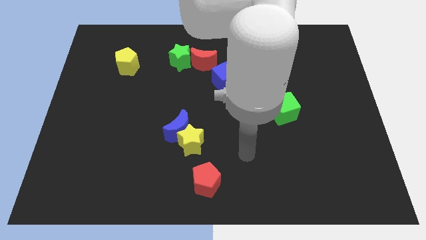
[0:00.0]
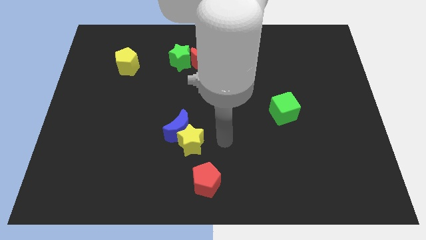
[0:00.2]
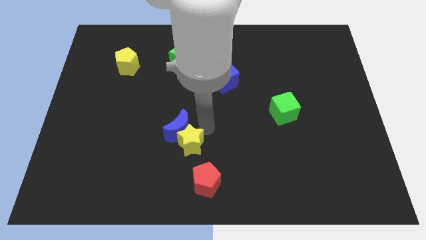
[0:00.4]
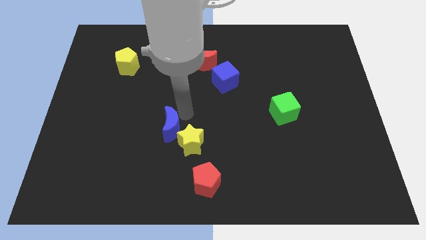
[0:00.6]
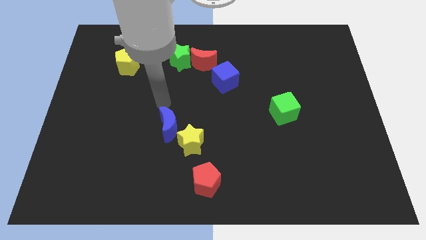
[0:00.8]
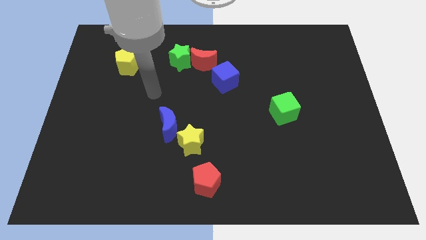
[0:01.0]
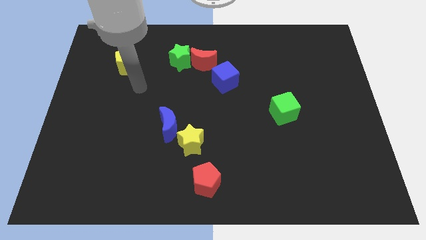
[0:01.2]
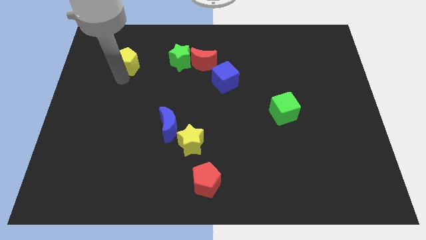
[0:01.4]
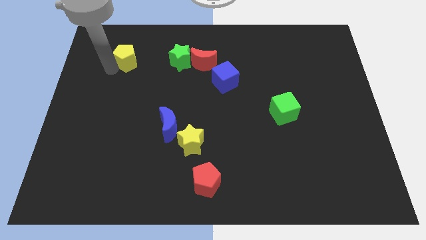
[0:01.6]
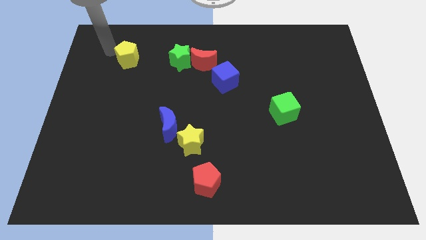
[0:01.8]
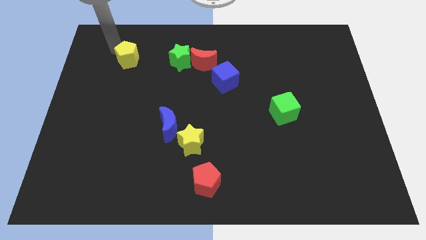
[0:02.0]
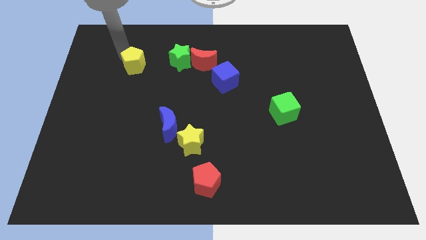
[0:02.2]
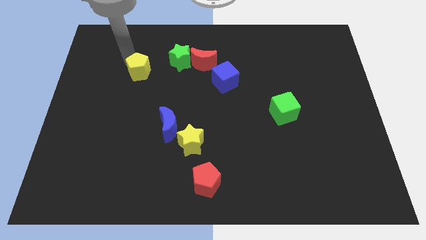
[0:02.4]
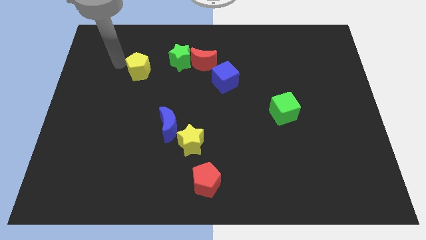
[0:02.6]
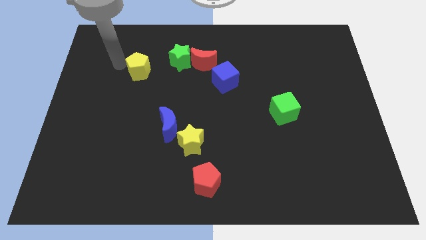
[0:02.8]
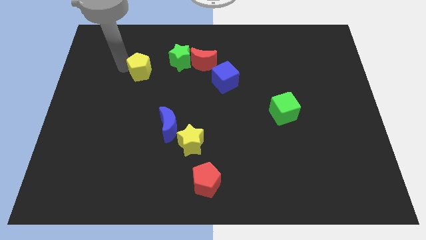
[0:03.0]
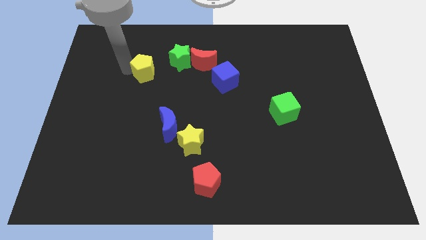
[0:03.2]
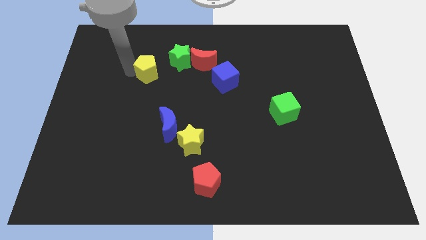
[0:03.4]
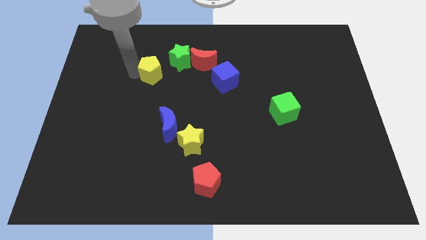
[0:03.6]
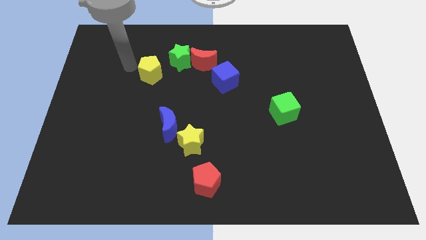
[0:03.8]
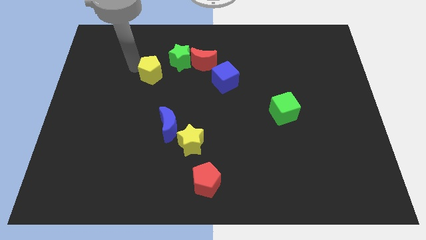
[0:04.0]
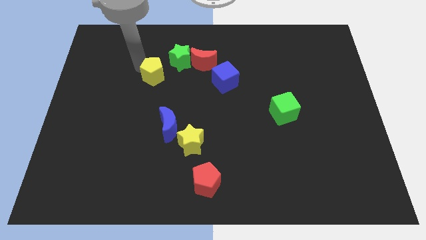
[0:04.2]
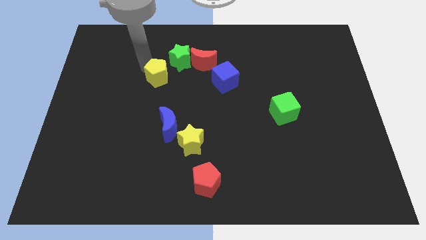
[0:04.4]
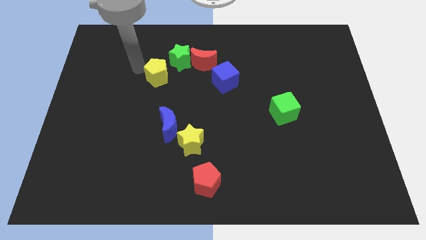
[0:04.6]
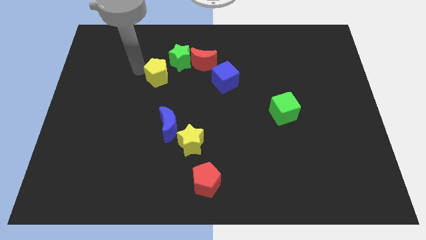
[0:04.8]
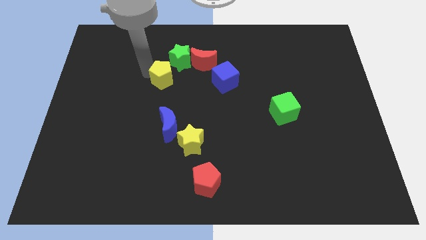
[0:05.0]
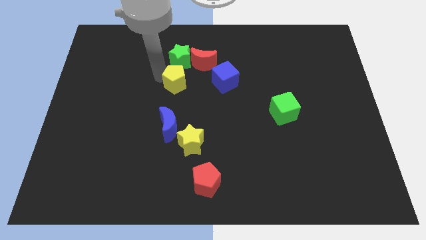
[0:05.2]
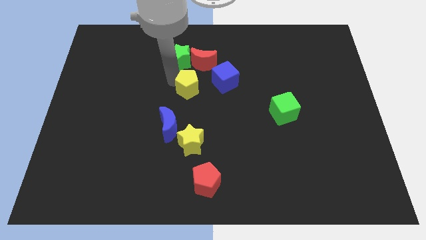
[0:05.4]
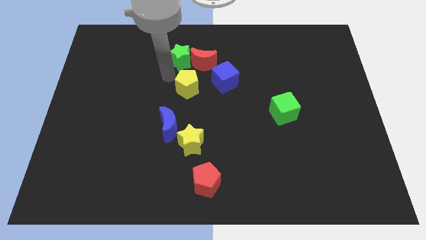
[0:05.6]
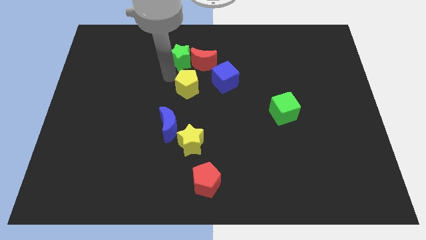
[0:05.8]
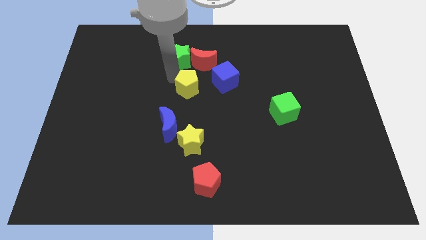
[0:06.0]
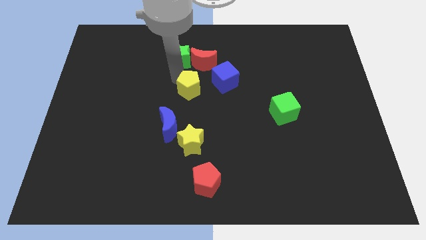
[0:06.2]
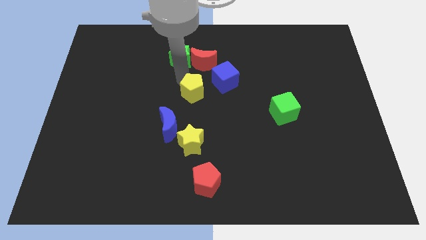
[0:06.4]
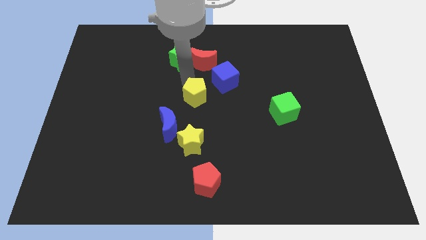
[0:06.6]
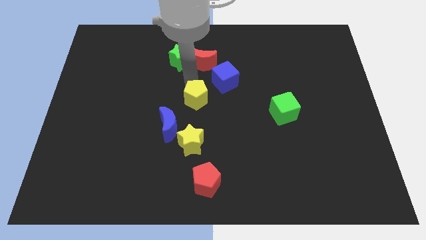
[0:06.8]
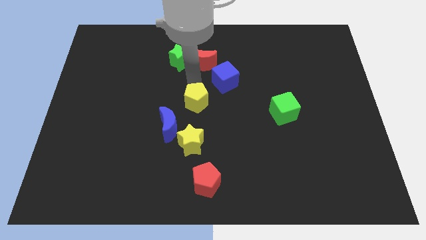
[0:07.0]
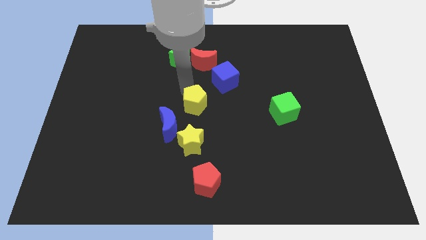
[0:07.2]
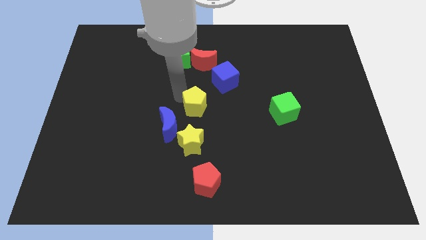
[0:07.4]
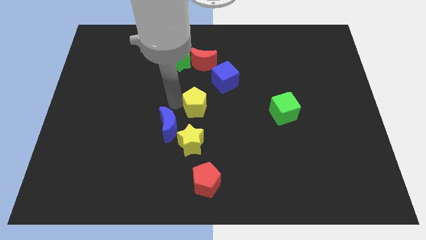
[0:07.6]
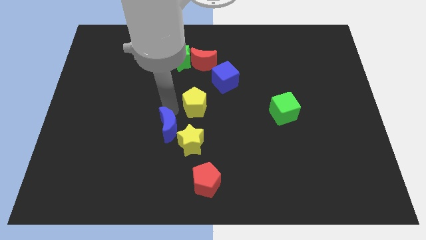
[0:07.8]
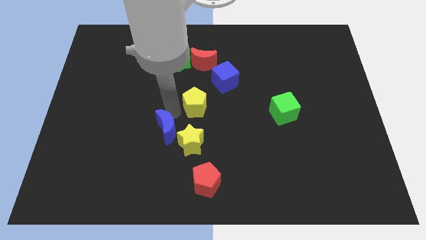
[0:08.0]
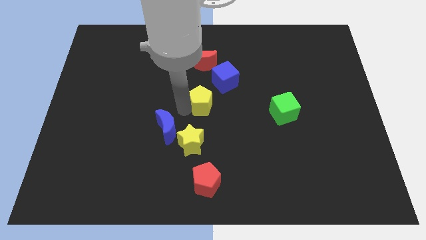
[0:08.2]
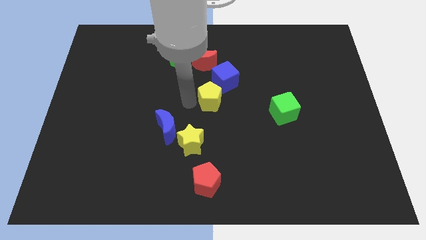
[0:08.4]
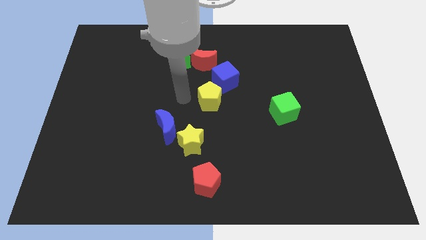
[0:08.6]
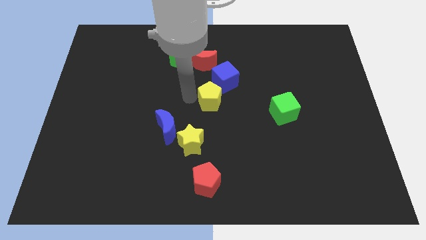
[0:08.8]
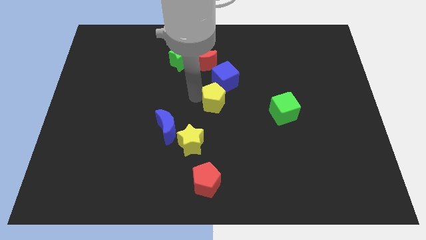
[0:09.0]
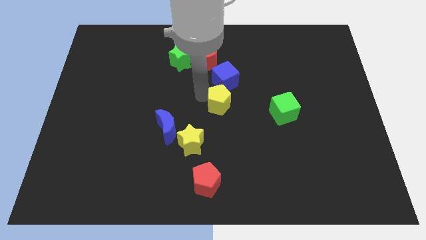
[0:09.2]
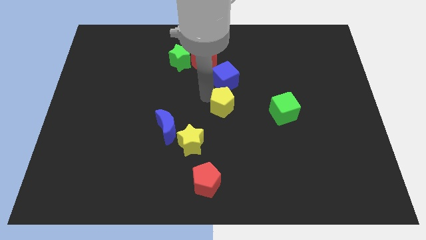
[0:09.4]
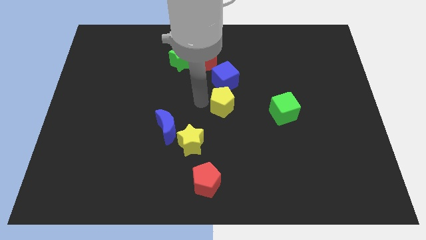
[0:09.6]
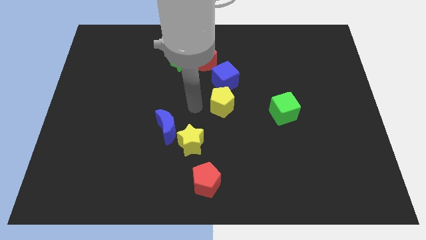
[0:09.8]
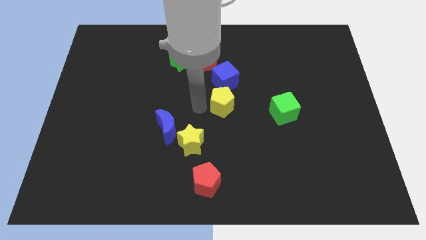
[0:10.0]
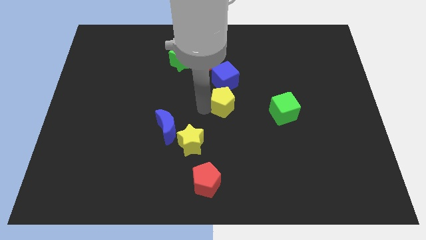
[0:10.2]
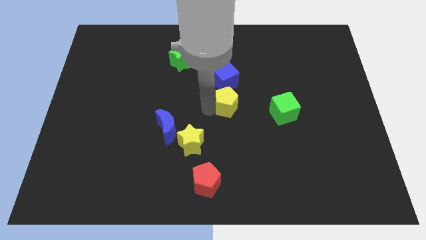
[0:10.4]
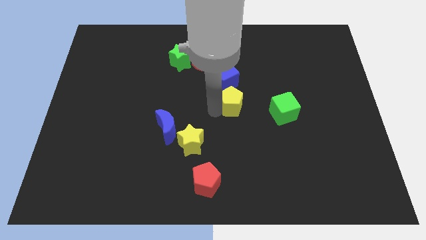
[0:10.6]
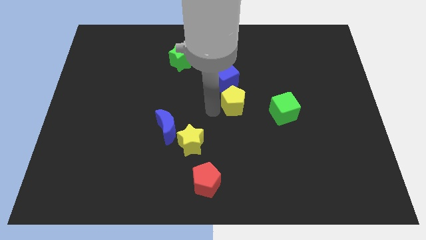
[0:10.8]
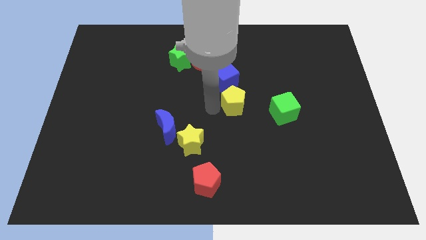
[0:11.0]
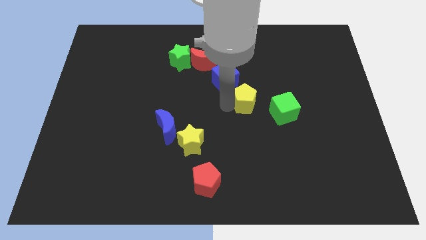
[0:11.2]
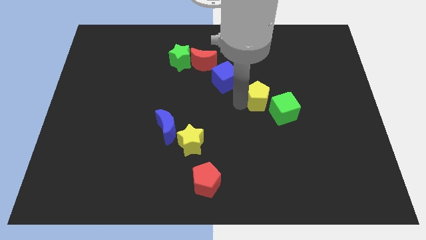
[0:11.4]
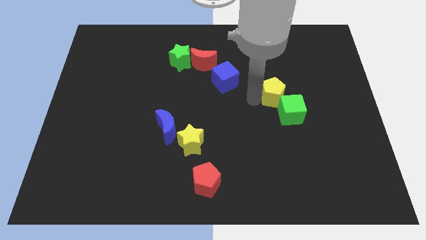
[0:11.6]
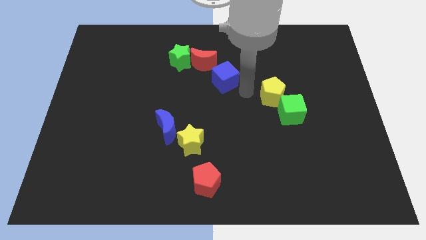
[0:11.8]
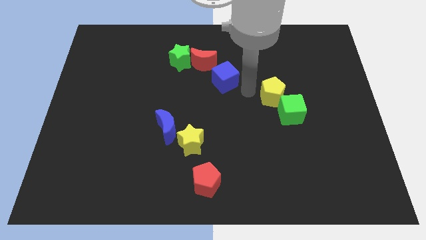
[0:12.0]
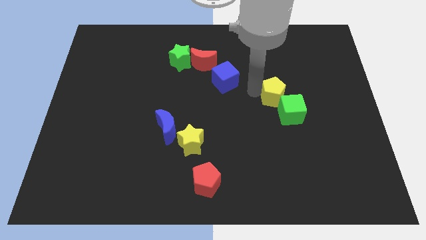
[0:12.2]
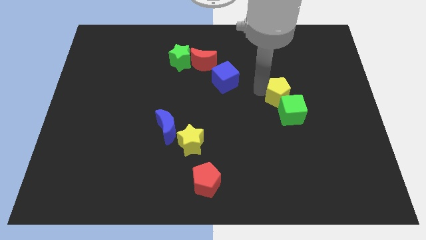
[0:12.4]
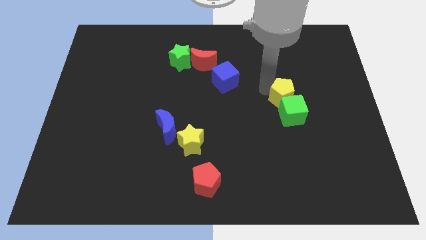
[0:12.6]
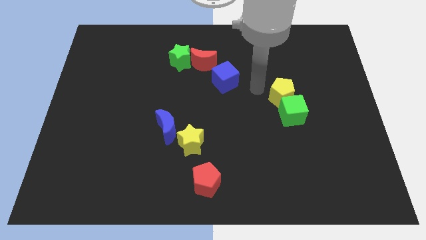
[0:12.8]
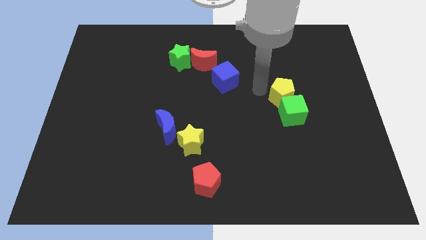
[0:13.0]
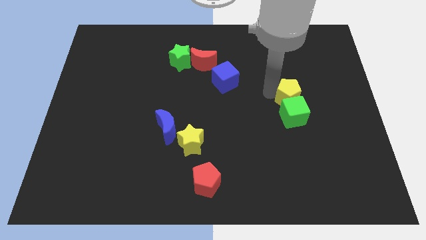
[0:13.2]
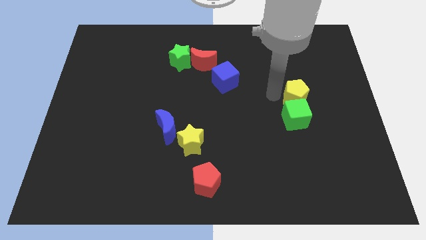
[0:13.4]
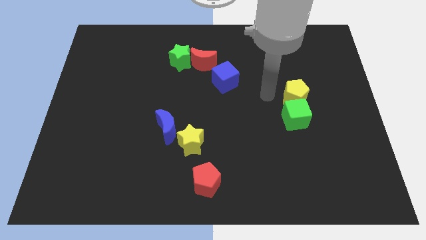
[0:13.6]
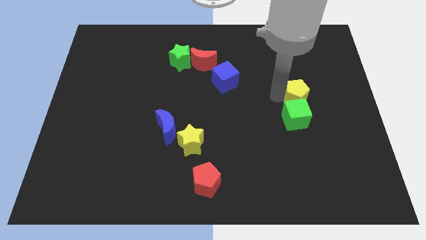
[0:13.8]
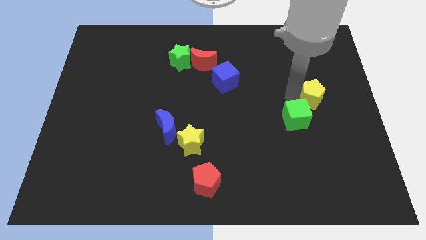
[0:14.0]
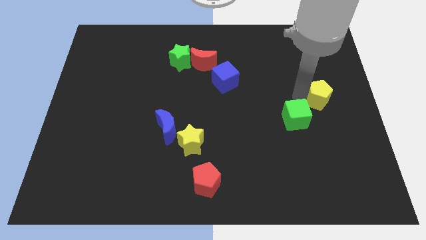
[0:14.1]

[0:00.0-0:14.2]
put the yellow pentagon to the right side
